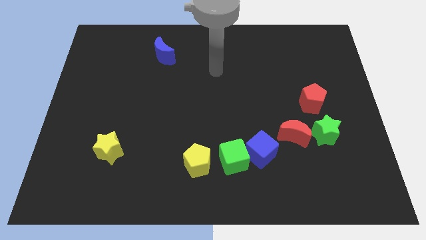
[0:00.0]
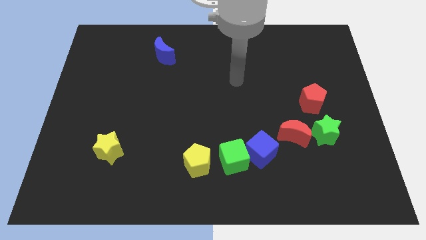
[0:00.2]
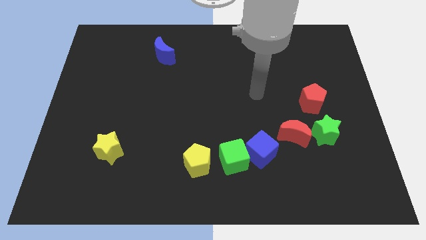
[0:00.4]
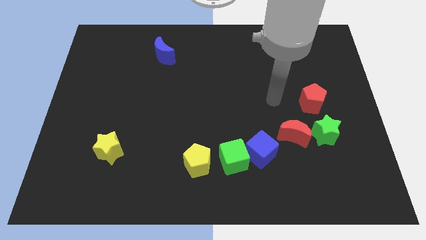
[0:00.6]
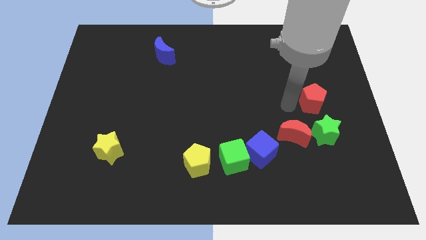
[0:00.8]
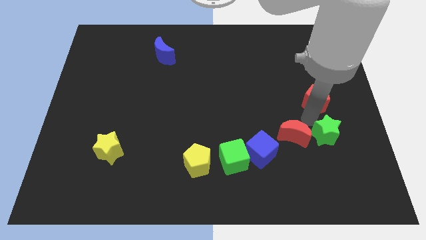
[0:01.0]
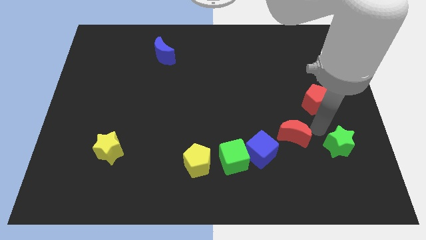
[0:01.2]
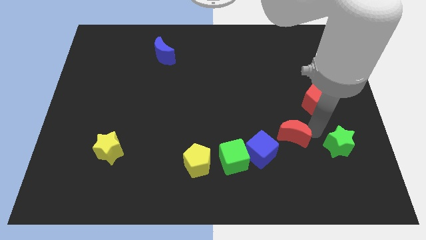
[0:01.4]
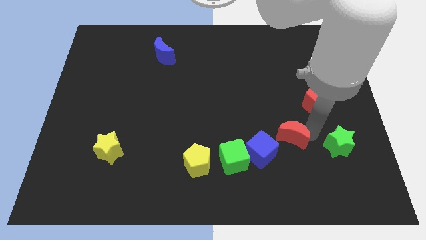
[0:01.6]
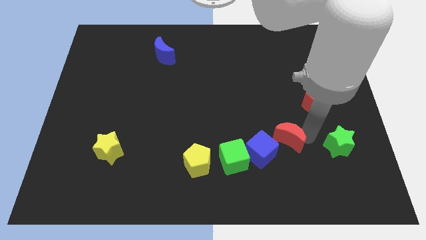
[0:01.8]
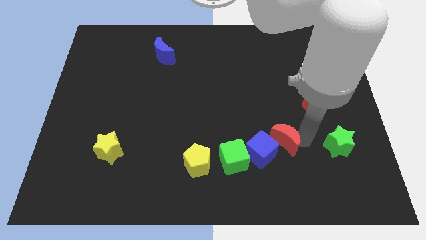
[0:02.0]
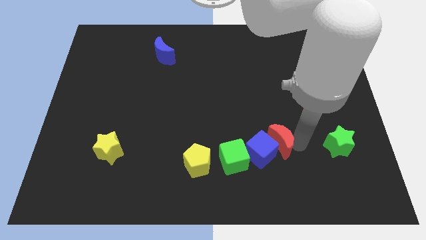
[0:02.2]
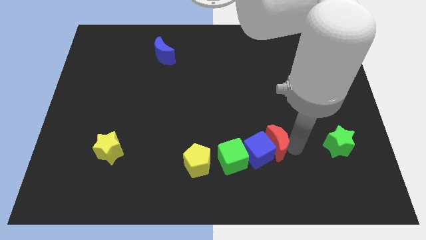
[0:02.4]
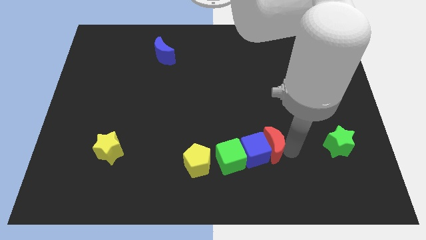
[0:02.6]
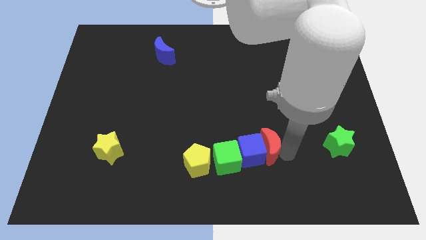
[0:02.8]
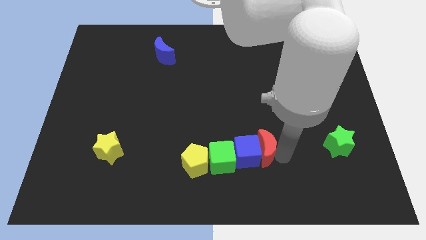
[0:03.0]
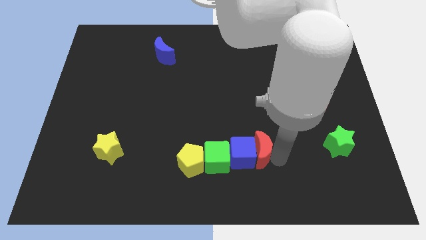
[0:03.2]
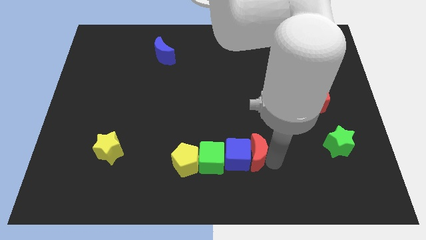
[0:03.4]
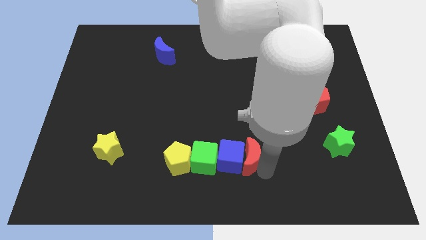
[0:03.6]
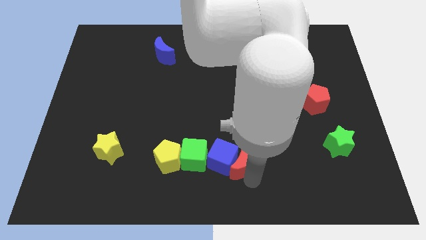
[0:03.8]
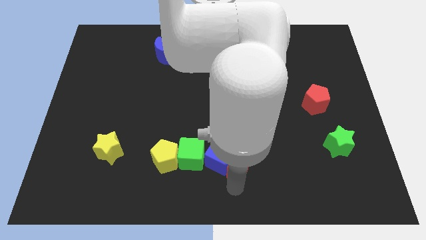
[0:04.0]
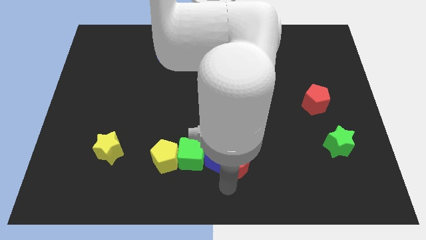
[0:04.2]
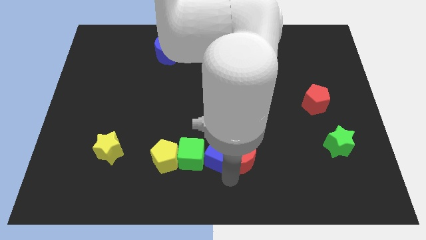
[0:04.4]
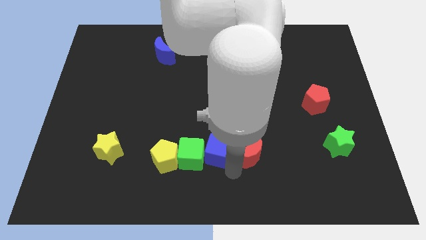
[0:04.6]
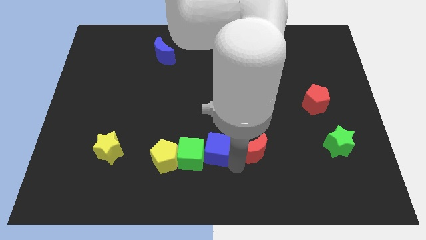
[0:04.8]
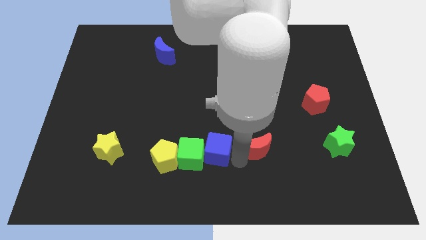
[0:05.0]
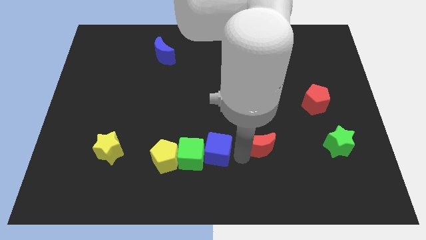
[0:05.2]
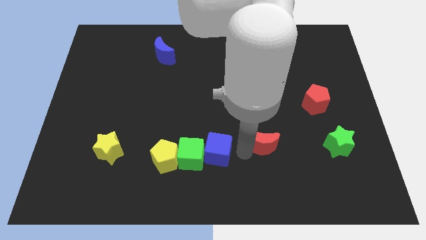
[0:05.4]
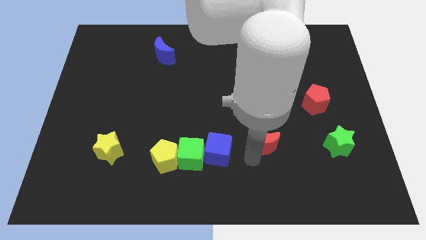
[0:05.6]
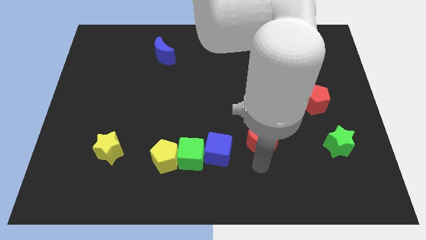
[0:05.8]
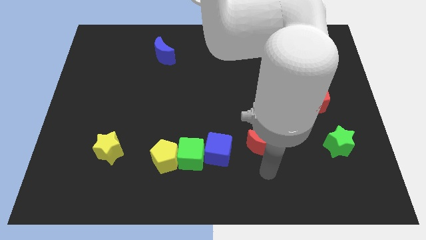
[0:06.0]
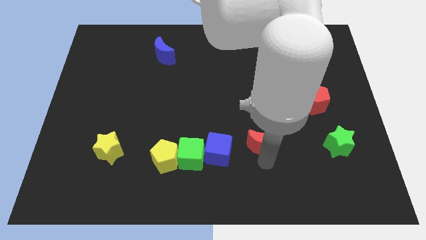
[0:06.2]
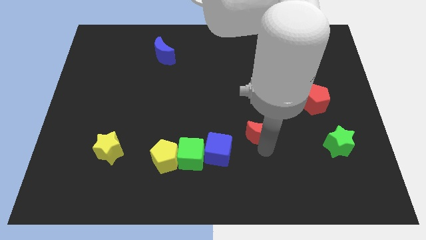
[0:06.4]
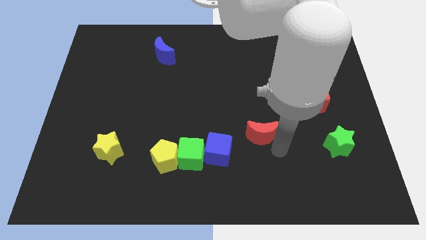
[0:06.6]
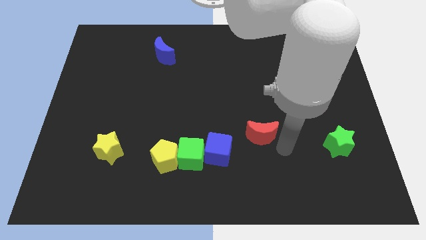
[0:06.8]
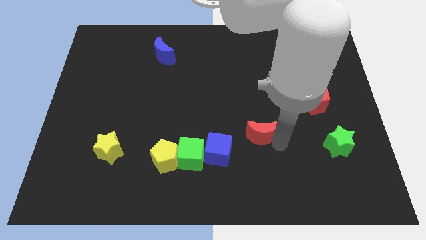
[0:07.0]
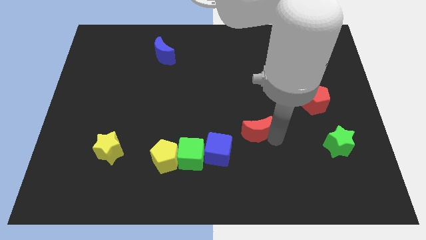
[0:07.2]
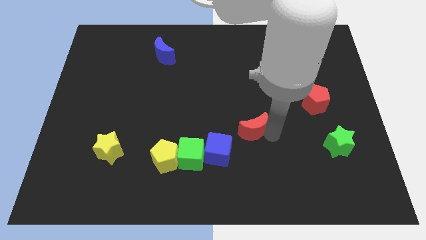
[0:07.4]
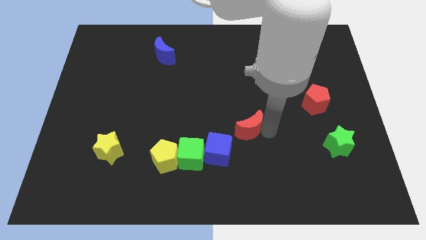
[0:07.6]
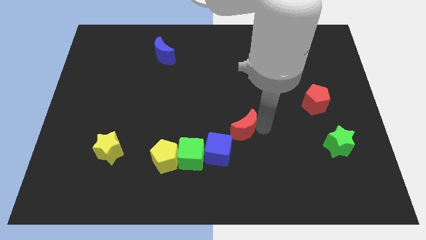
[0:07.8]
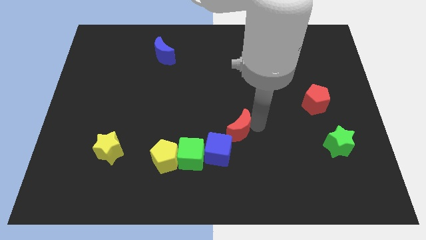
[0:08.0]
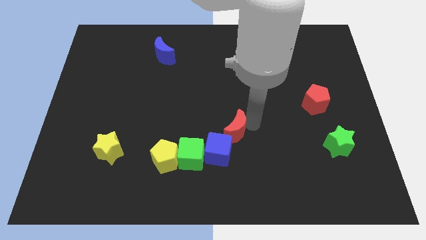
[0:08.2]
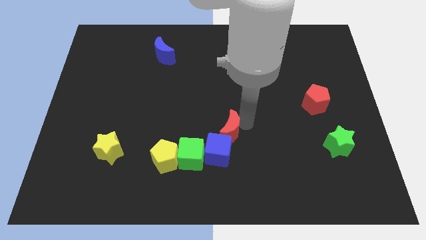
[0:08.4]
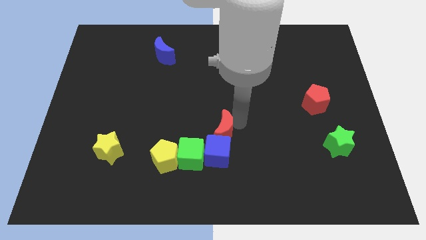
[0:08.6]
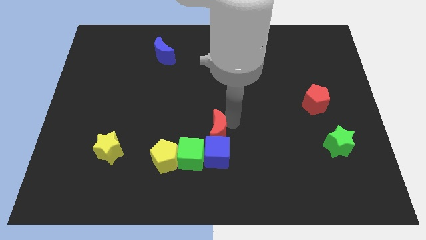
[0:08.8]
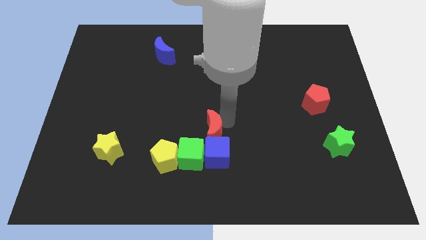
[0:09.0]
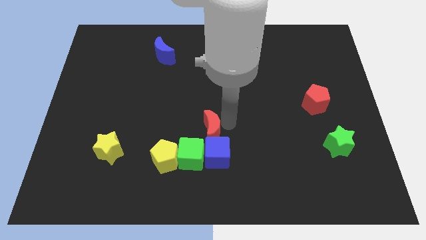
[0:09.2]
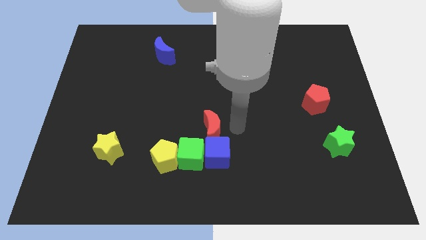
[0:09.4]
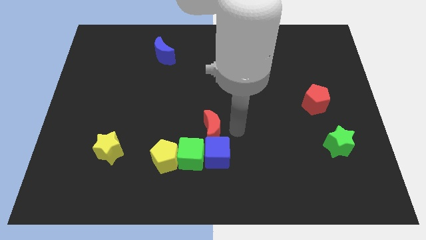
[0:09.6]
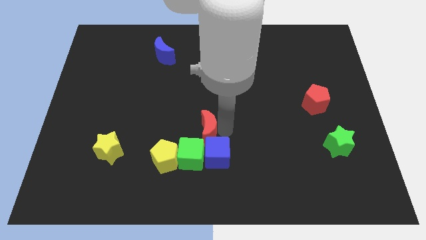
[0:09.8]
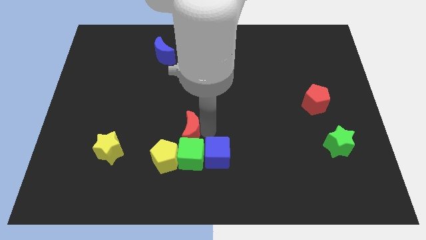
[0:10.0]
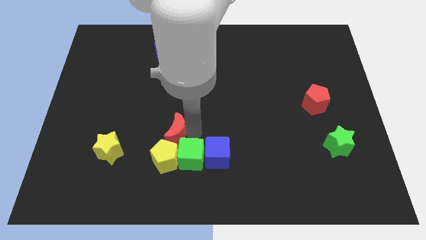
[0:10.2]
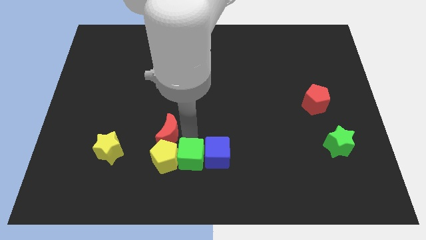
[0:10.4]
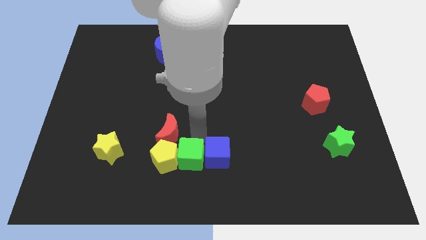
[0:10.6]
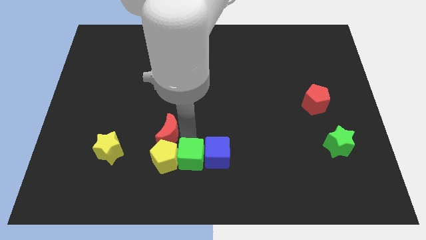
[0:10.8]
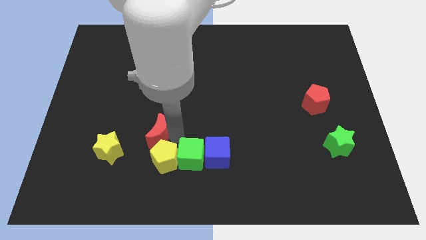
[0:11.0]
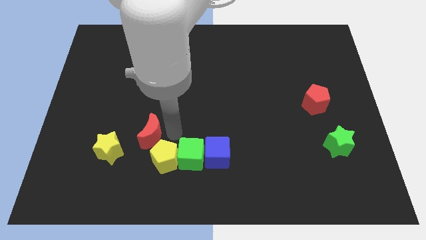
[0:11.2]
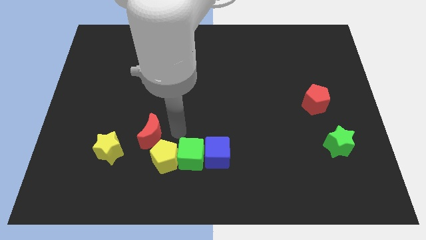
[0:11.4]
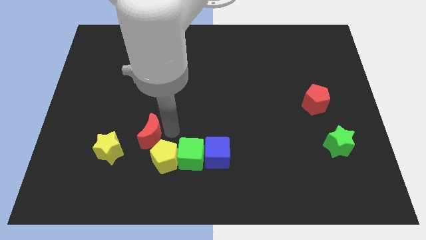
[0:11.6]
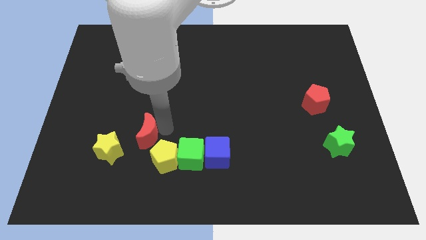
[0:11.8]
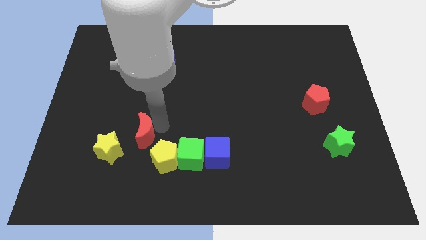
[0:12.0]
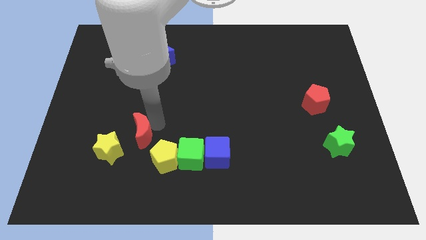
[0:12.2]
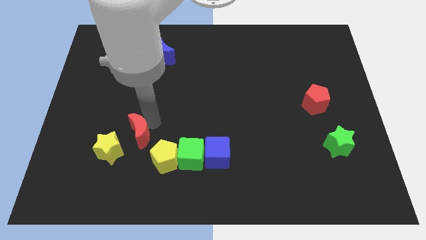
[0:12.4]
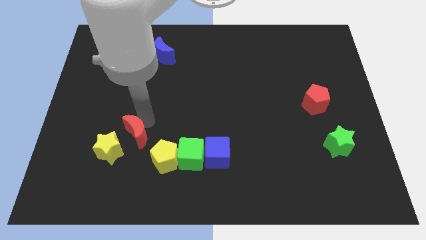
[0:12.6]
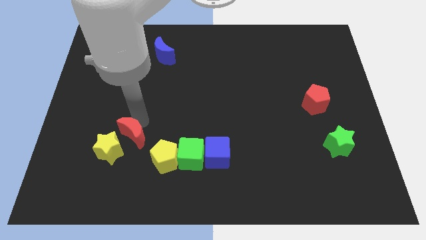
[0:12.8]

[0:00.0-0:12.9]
slide the red moon towards the yellow star
